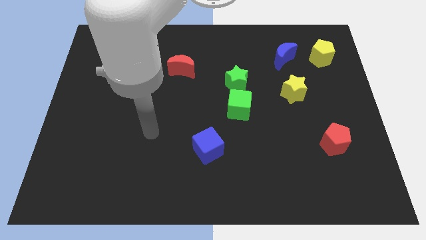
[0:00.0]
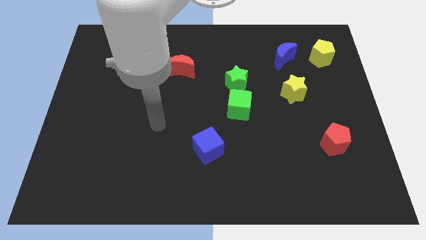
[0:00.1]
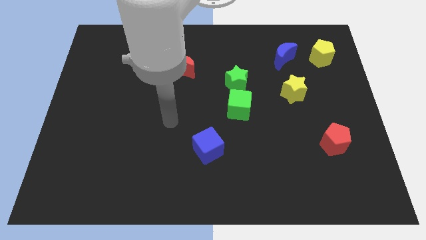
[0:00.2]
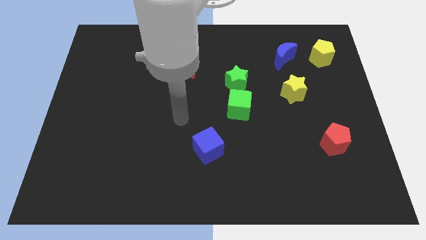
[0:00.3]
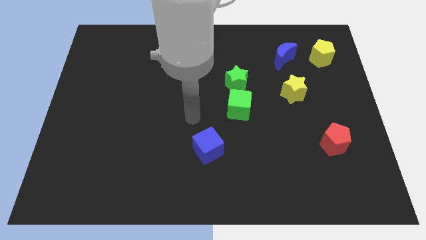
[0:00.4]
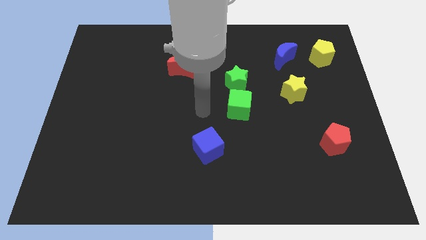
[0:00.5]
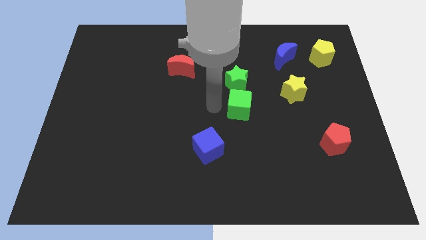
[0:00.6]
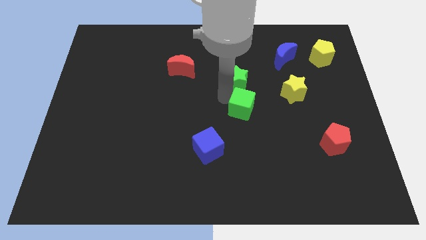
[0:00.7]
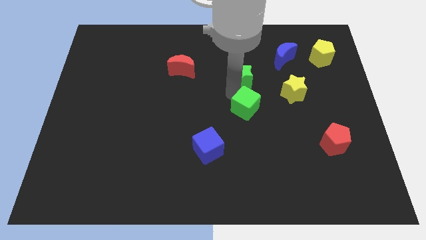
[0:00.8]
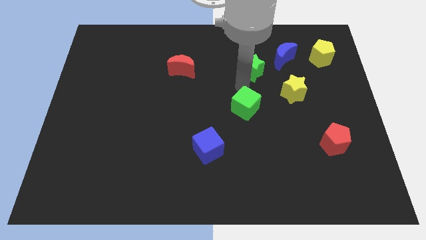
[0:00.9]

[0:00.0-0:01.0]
separate the green cube from the green star

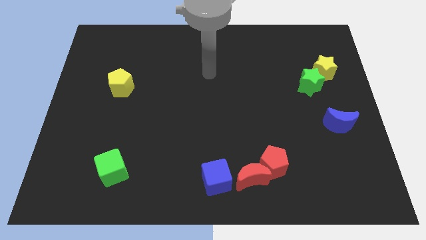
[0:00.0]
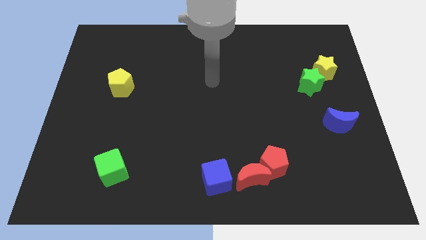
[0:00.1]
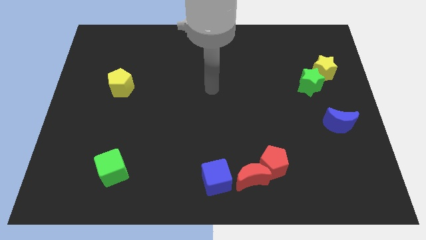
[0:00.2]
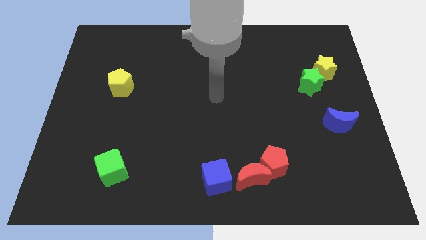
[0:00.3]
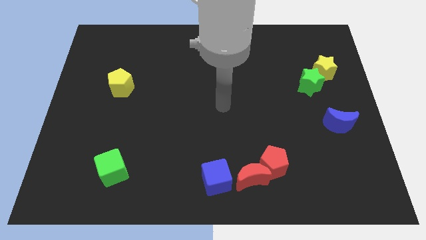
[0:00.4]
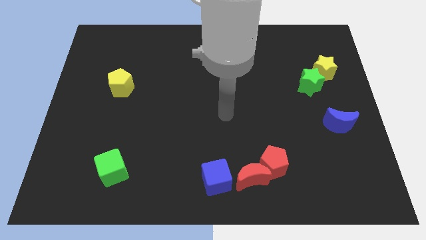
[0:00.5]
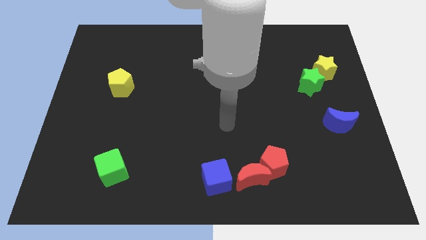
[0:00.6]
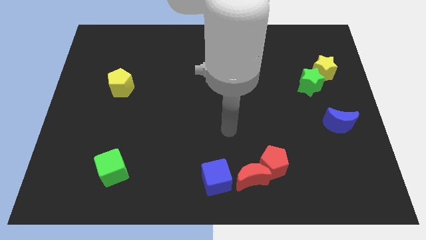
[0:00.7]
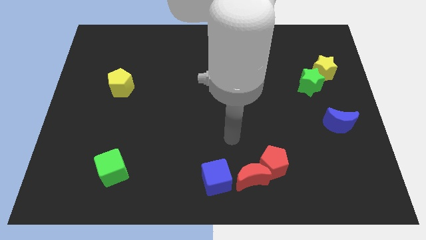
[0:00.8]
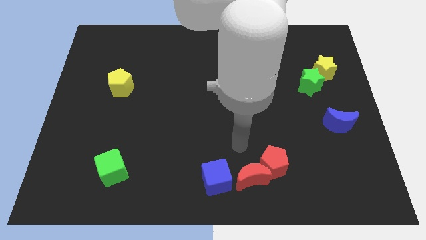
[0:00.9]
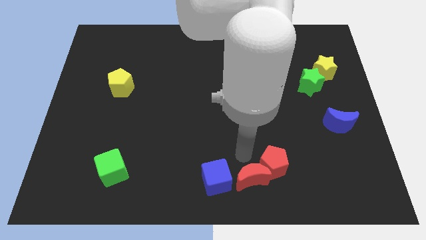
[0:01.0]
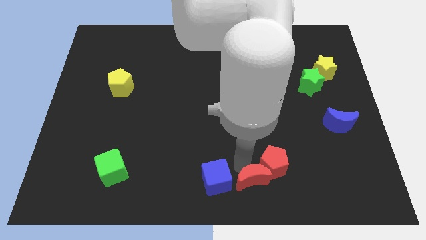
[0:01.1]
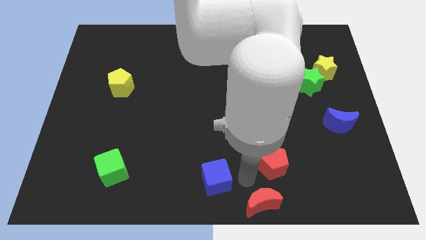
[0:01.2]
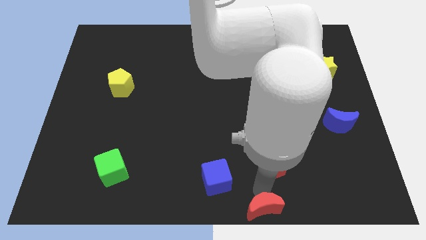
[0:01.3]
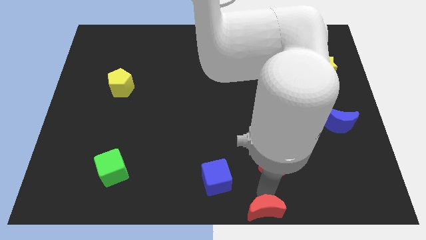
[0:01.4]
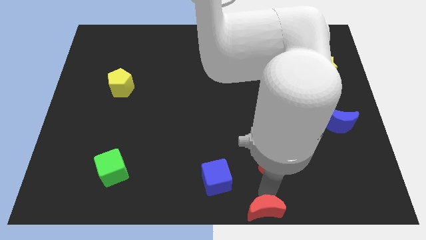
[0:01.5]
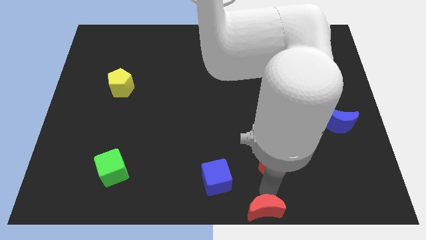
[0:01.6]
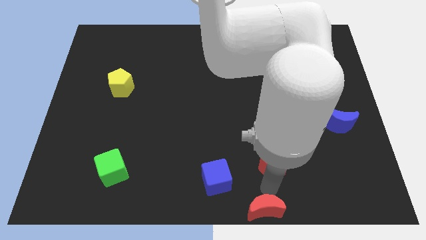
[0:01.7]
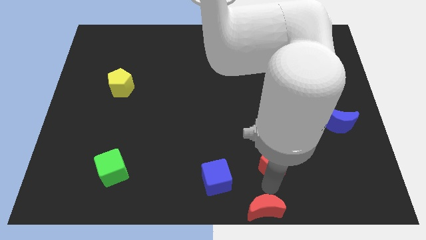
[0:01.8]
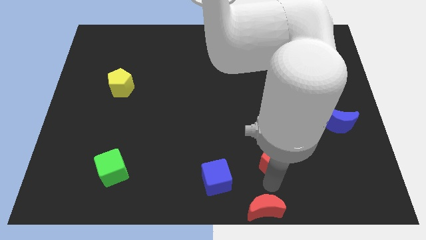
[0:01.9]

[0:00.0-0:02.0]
separate the red pentagon from the red moon

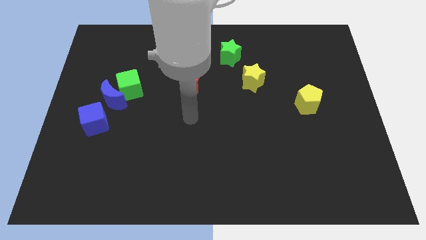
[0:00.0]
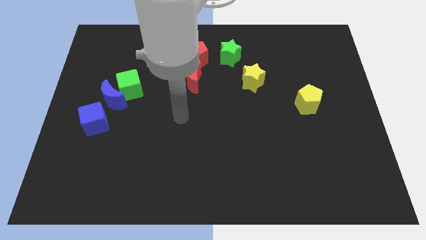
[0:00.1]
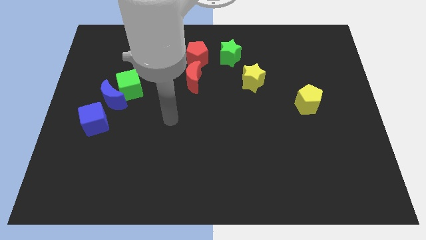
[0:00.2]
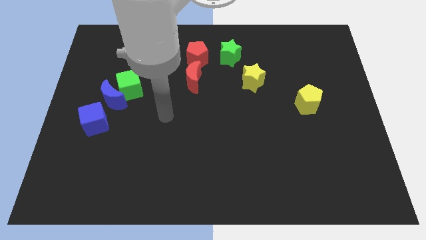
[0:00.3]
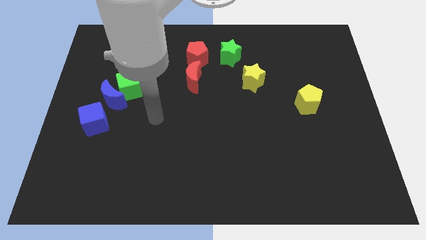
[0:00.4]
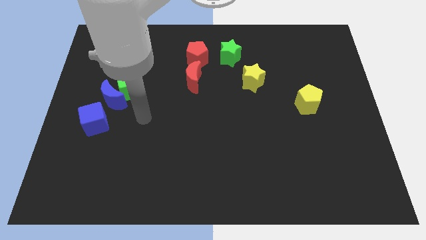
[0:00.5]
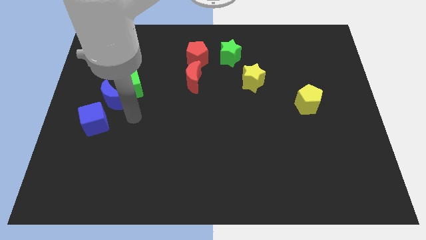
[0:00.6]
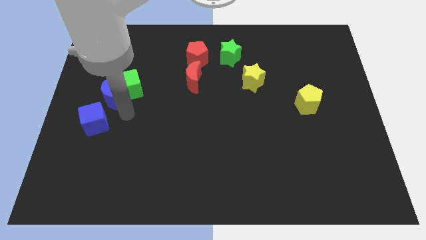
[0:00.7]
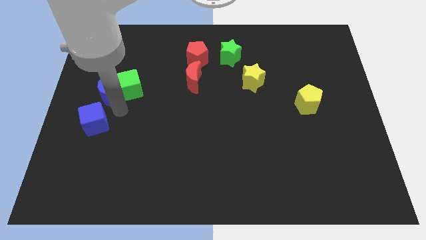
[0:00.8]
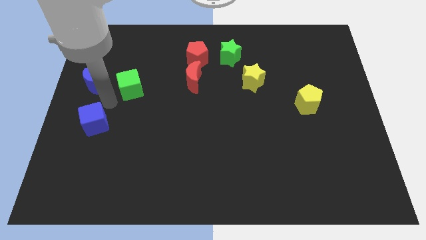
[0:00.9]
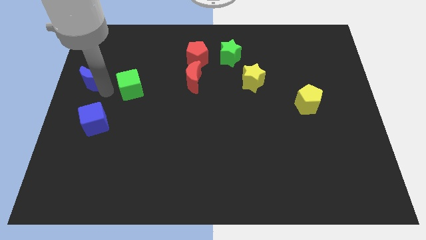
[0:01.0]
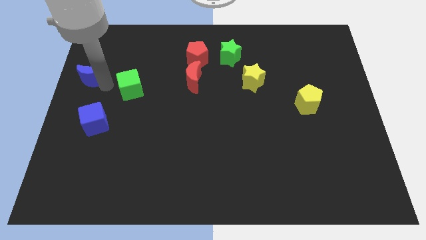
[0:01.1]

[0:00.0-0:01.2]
move the green cube away from the blue moon

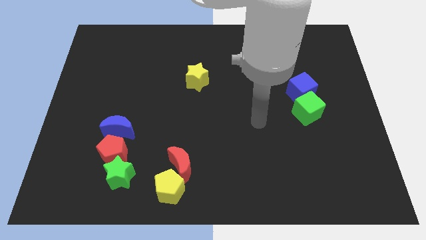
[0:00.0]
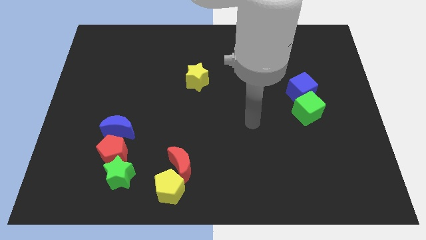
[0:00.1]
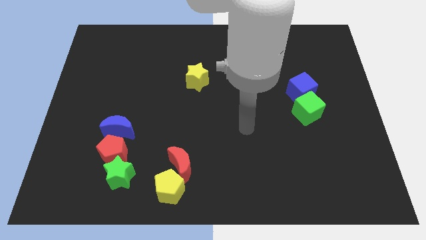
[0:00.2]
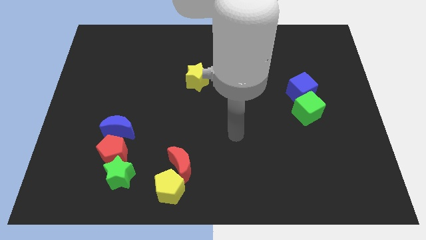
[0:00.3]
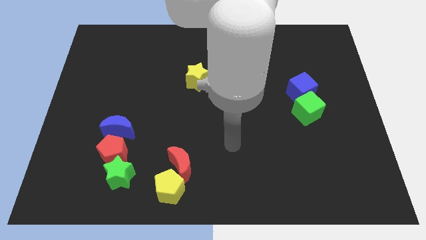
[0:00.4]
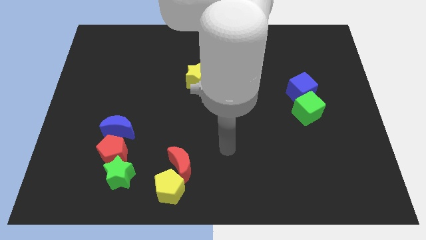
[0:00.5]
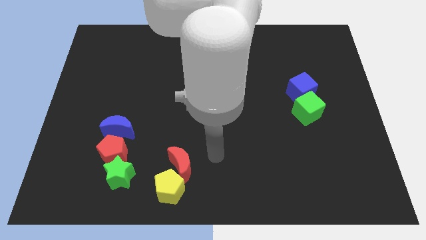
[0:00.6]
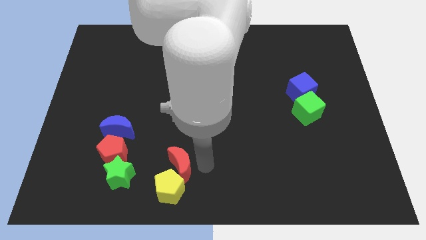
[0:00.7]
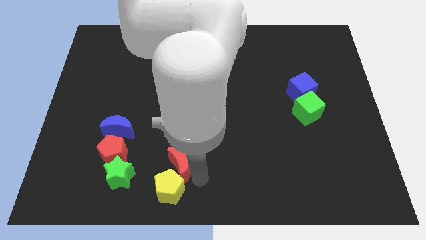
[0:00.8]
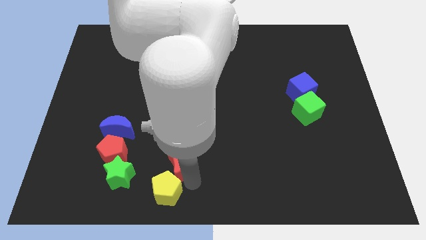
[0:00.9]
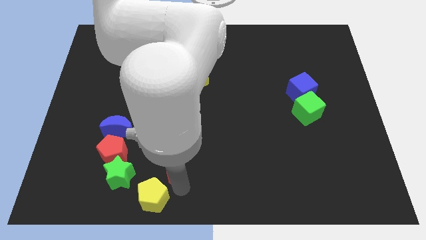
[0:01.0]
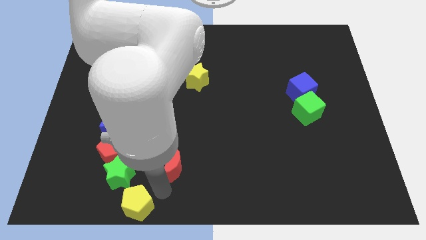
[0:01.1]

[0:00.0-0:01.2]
separate the red moon from the yellow pentagon

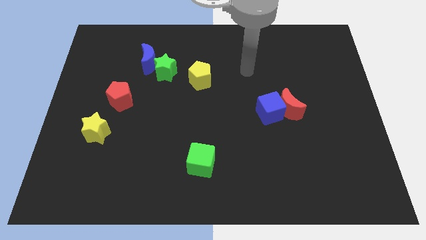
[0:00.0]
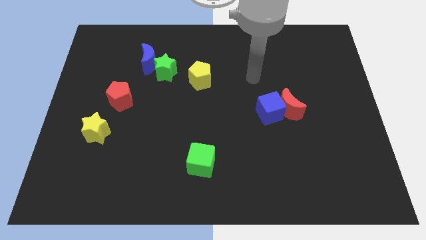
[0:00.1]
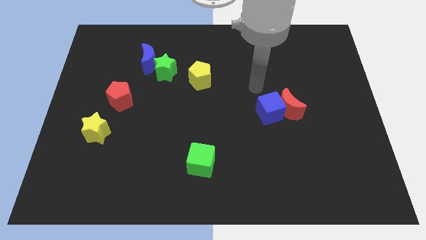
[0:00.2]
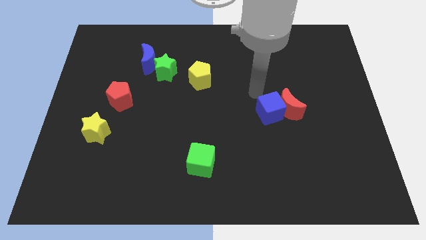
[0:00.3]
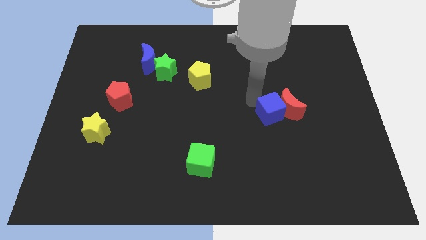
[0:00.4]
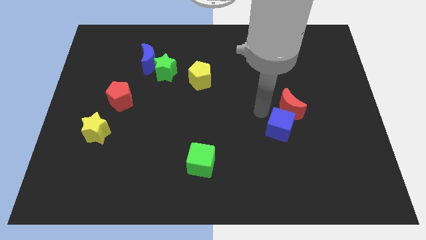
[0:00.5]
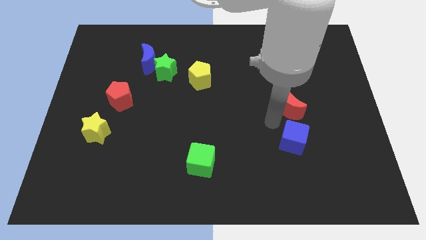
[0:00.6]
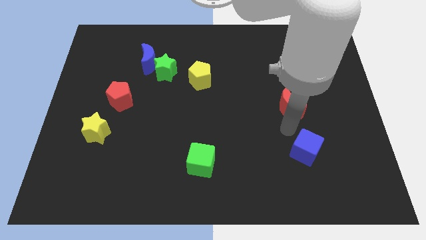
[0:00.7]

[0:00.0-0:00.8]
pull the red moon apart from the blue cube

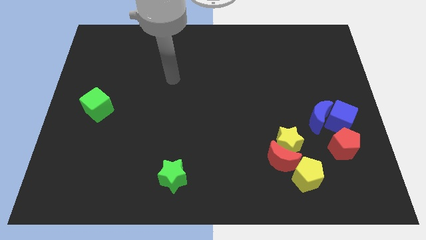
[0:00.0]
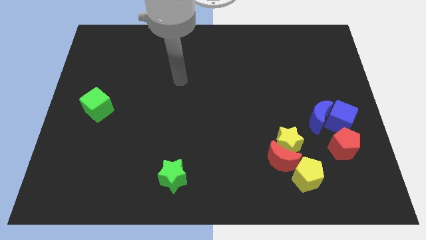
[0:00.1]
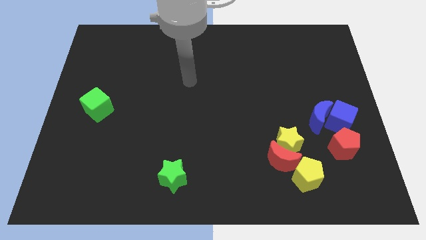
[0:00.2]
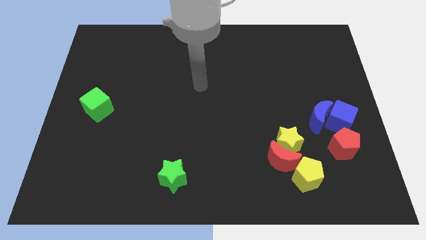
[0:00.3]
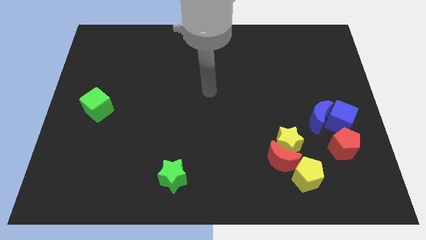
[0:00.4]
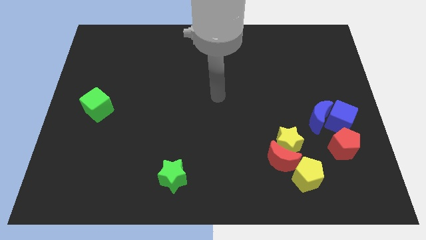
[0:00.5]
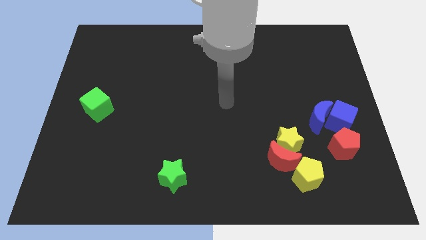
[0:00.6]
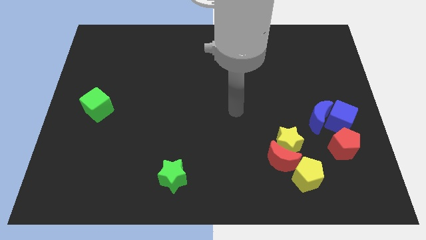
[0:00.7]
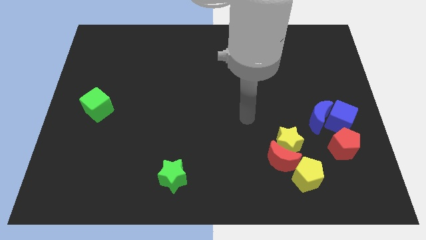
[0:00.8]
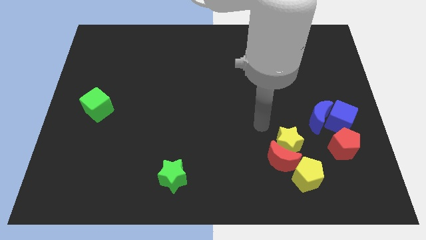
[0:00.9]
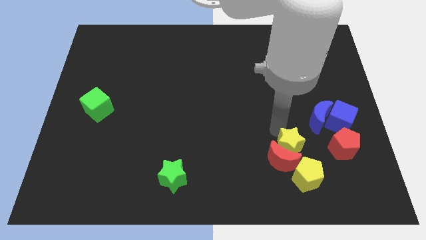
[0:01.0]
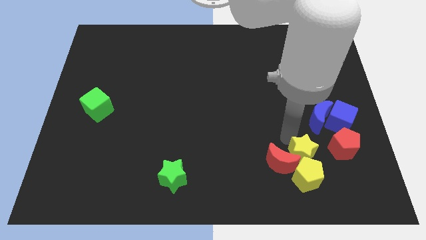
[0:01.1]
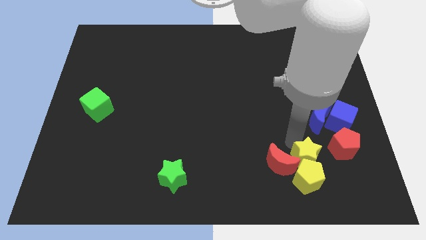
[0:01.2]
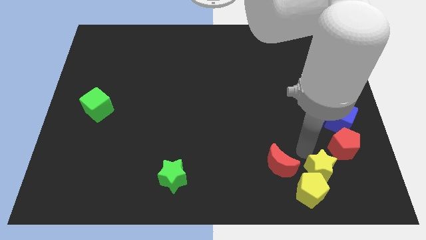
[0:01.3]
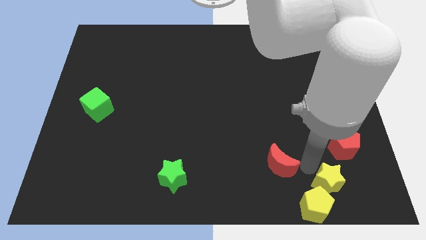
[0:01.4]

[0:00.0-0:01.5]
move the red moon away from the yellow star and yellow pentagon

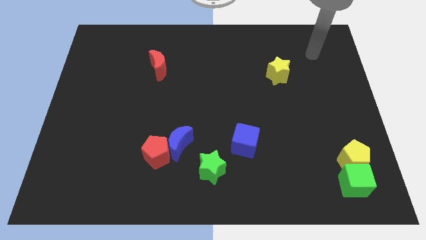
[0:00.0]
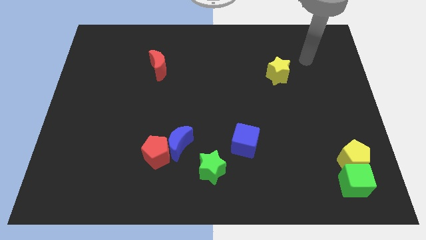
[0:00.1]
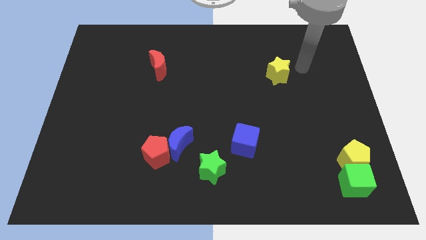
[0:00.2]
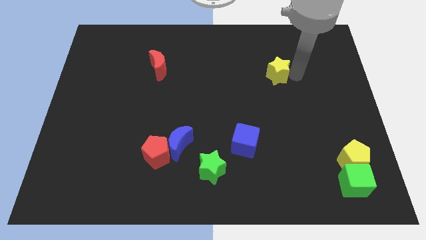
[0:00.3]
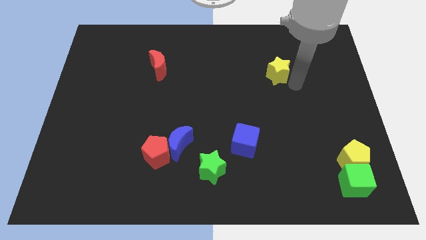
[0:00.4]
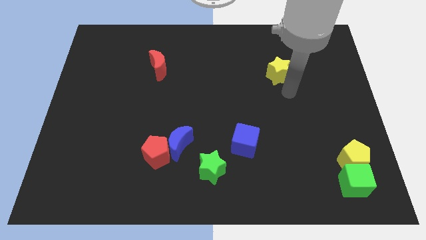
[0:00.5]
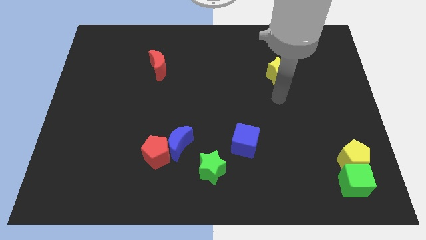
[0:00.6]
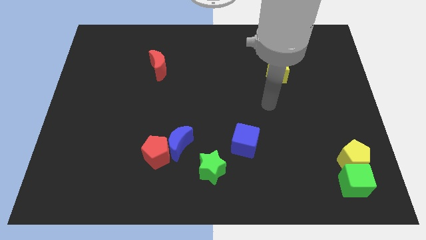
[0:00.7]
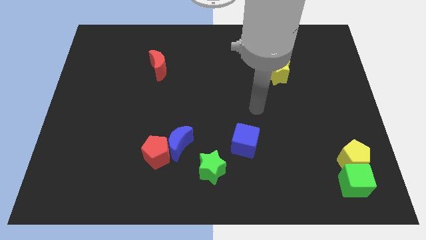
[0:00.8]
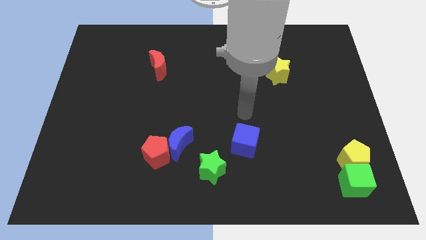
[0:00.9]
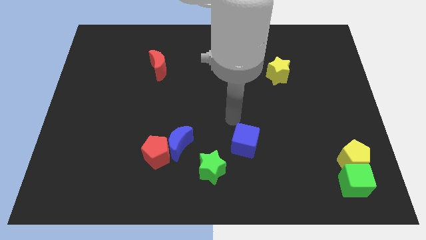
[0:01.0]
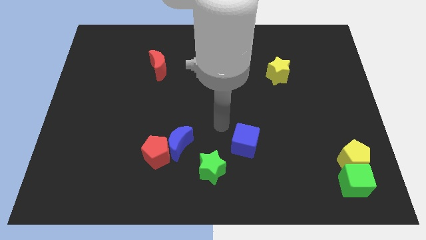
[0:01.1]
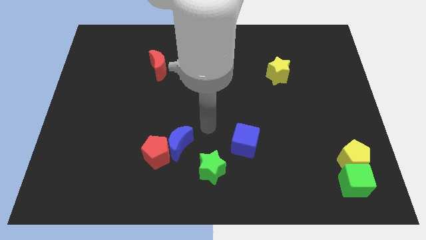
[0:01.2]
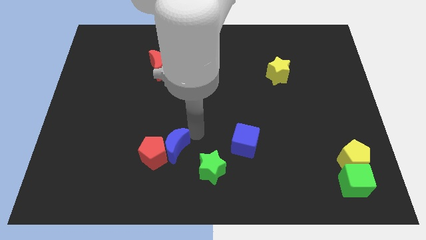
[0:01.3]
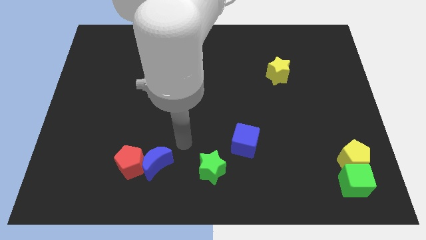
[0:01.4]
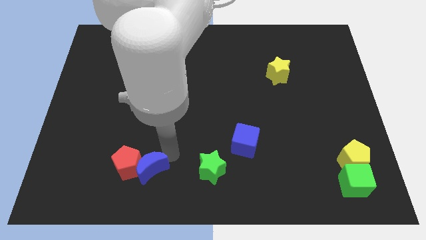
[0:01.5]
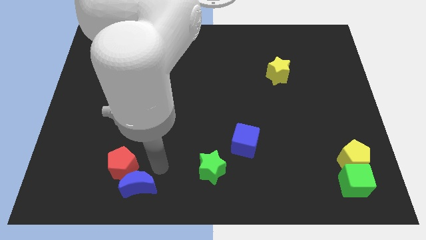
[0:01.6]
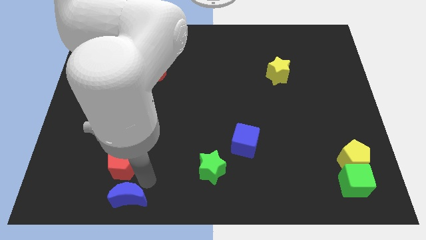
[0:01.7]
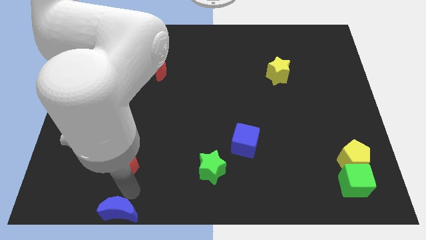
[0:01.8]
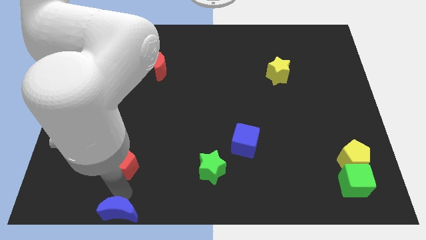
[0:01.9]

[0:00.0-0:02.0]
separate the red pentagon from the blue moon
